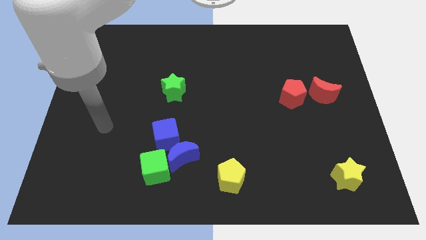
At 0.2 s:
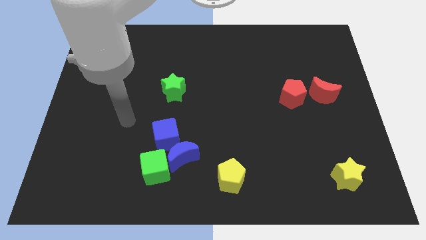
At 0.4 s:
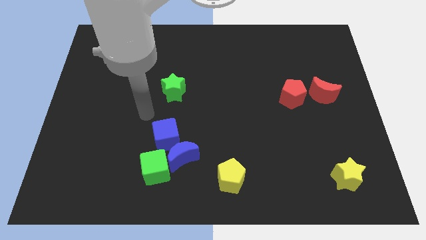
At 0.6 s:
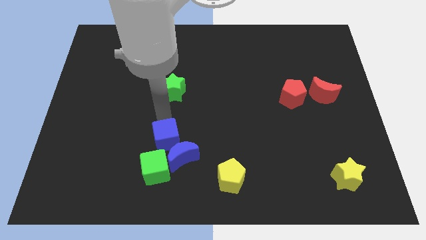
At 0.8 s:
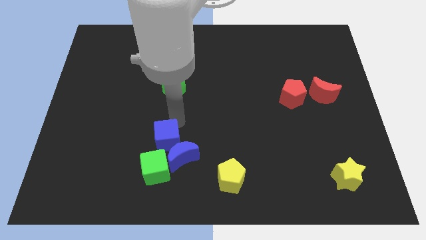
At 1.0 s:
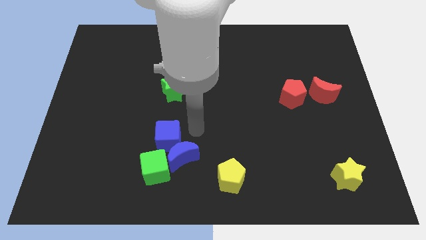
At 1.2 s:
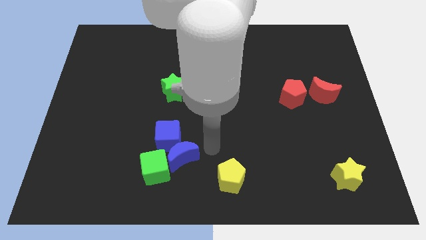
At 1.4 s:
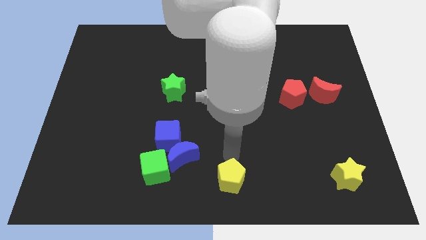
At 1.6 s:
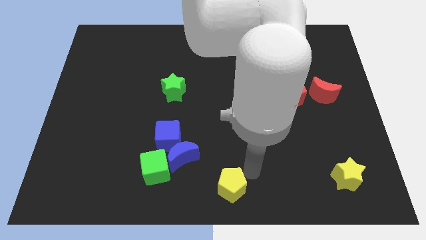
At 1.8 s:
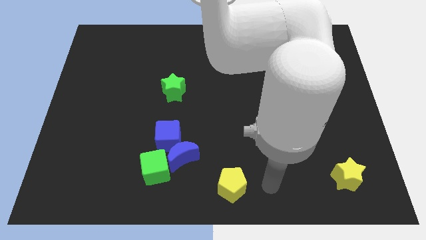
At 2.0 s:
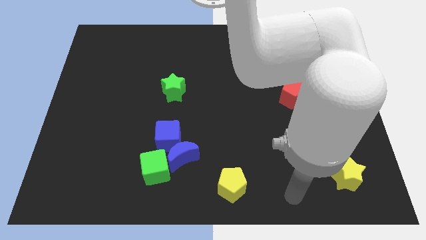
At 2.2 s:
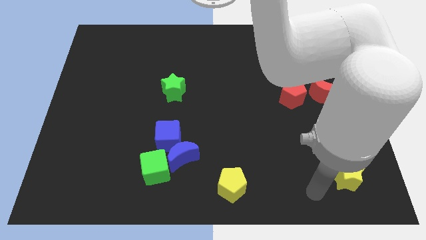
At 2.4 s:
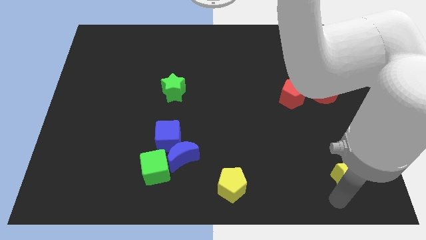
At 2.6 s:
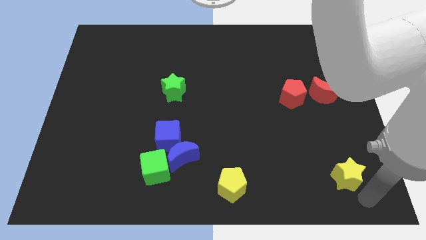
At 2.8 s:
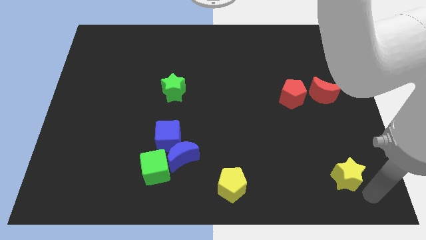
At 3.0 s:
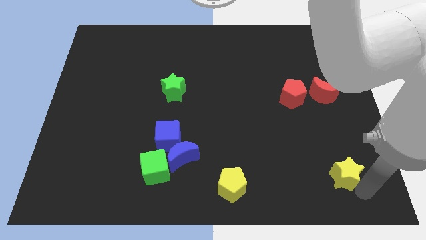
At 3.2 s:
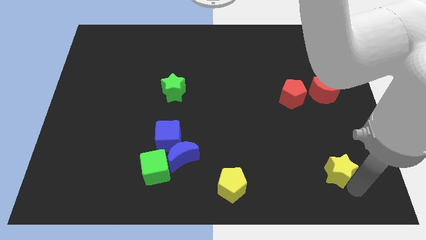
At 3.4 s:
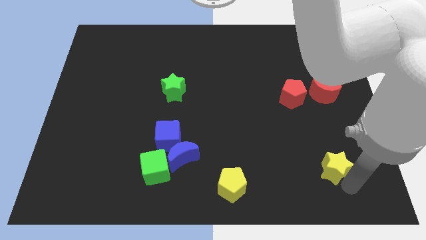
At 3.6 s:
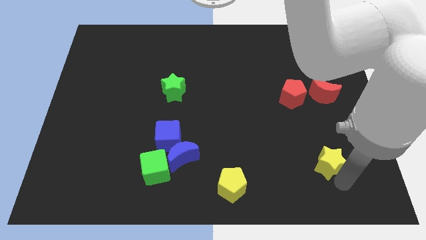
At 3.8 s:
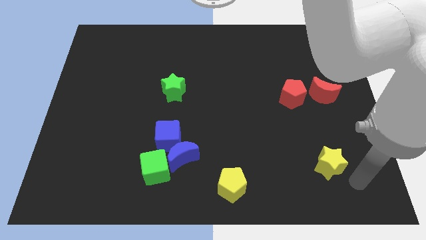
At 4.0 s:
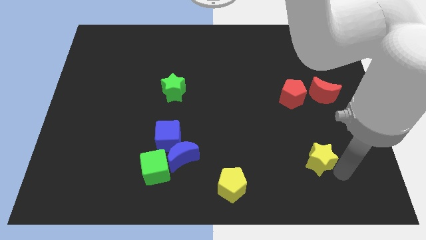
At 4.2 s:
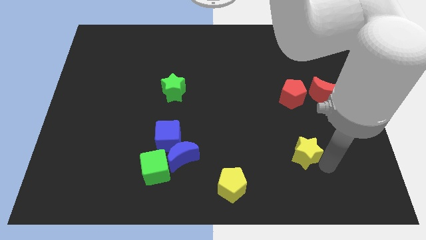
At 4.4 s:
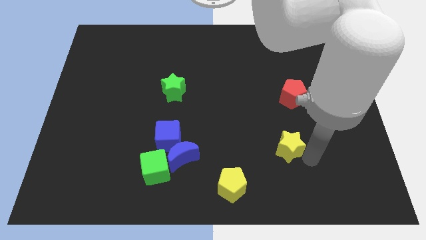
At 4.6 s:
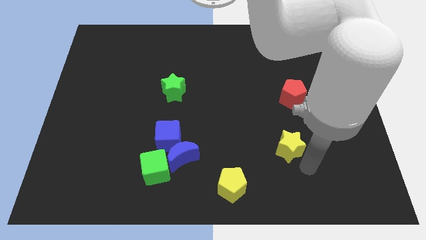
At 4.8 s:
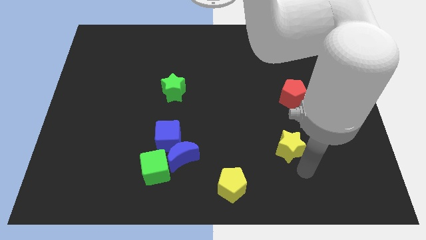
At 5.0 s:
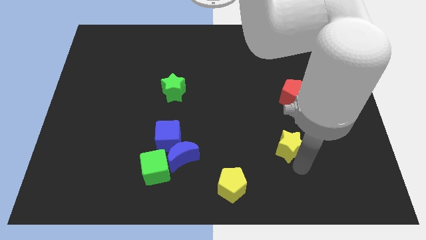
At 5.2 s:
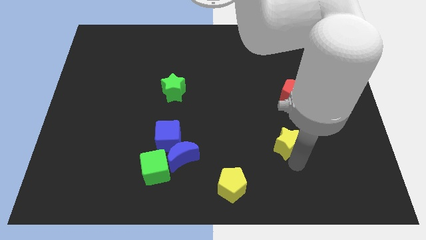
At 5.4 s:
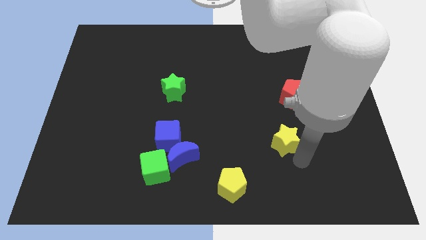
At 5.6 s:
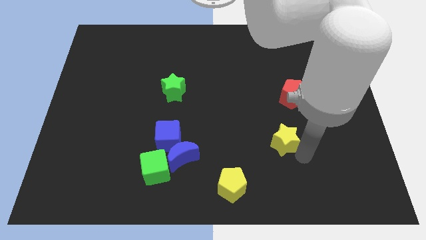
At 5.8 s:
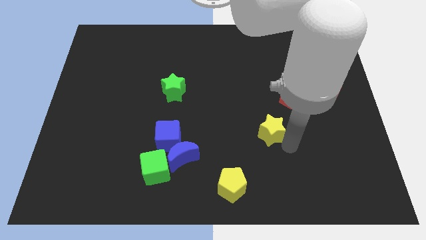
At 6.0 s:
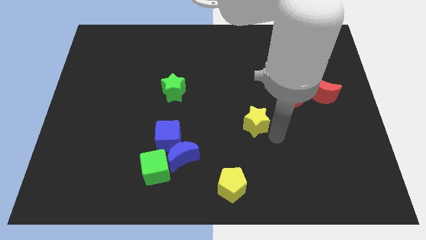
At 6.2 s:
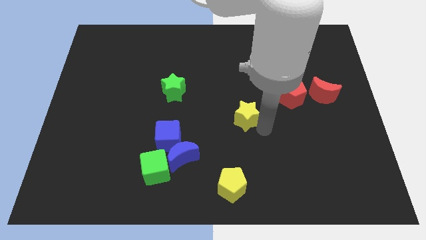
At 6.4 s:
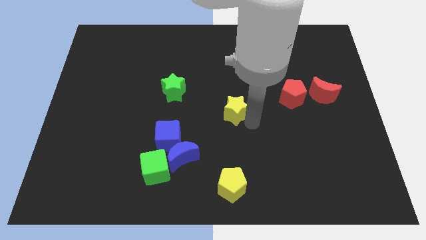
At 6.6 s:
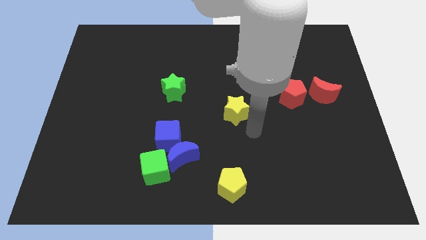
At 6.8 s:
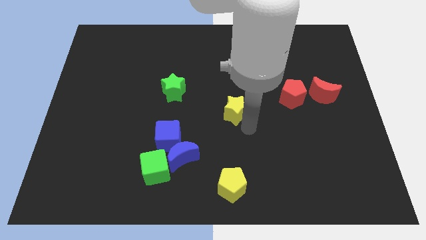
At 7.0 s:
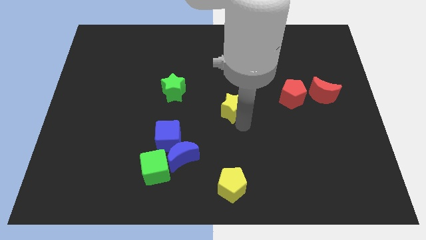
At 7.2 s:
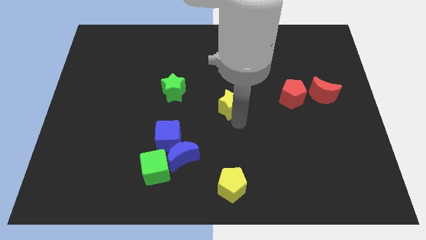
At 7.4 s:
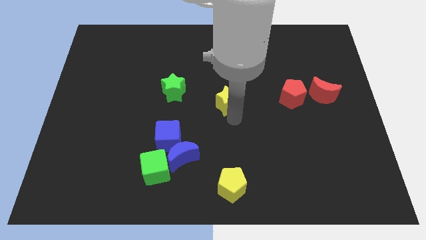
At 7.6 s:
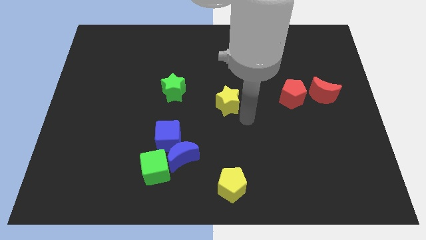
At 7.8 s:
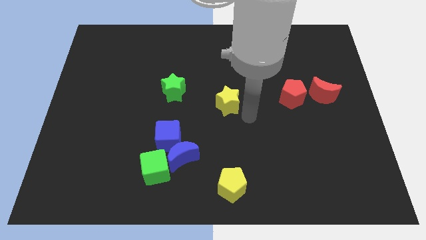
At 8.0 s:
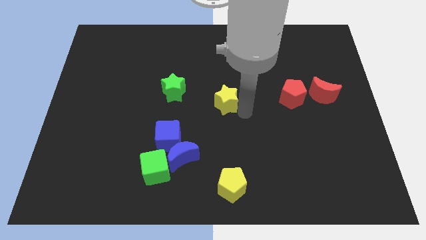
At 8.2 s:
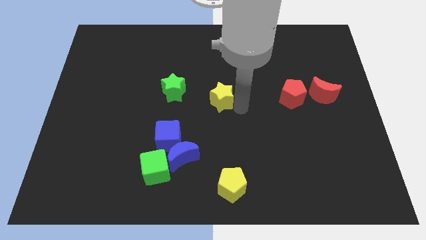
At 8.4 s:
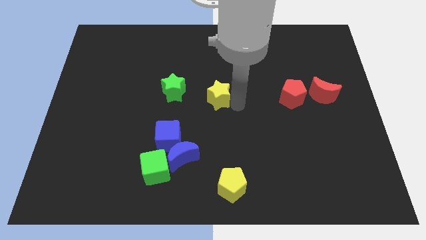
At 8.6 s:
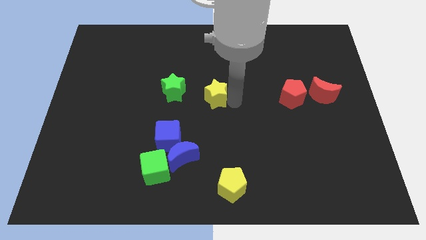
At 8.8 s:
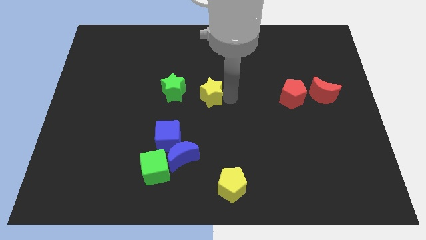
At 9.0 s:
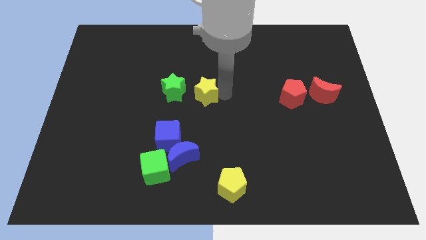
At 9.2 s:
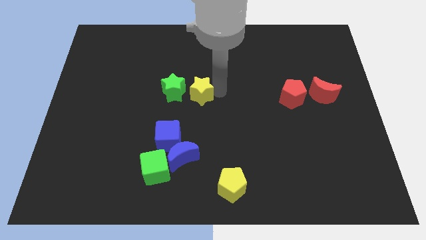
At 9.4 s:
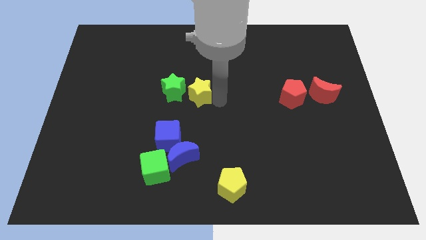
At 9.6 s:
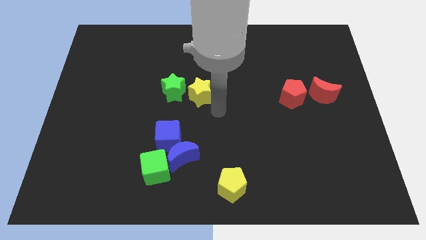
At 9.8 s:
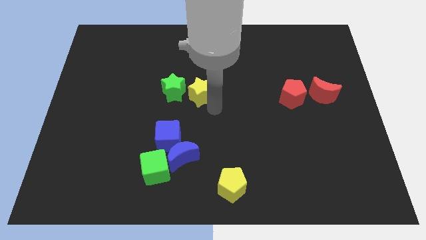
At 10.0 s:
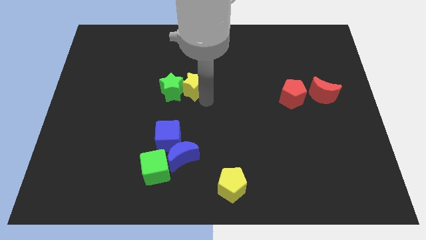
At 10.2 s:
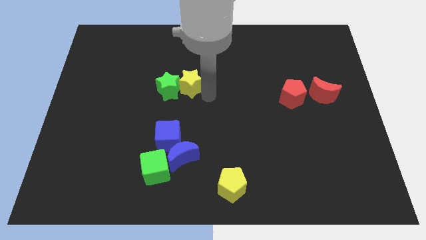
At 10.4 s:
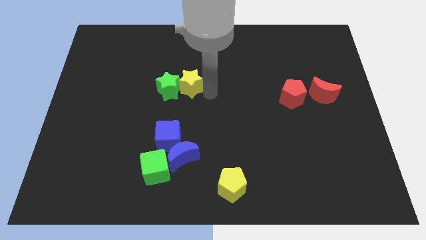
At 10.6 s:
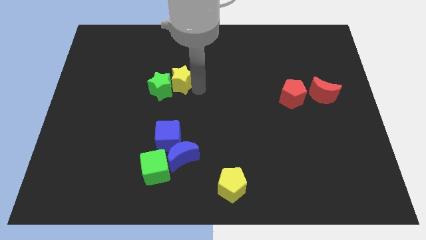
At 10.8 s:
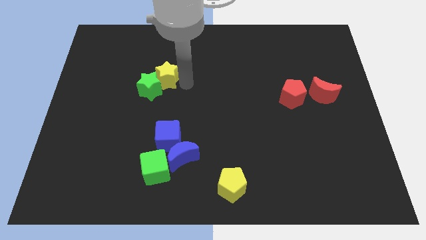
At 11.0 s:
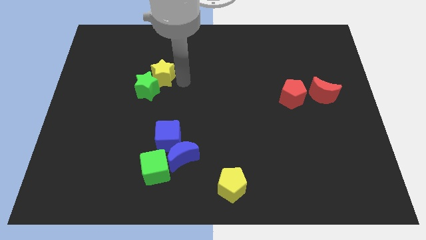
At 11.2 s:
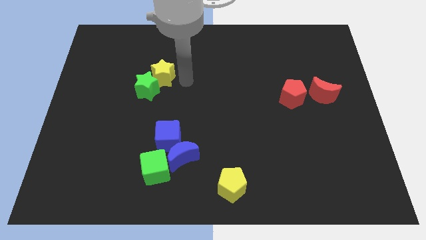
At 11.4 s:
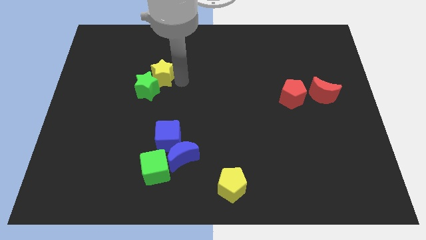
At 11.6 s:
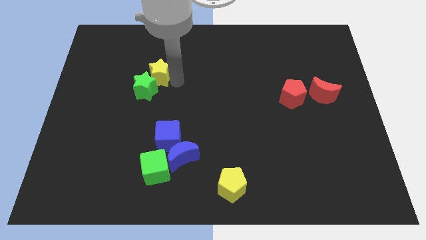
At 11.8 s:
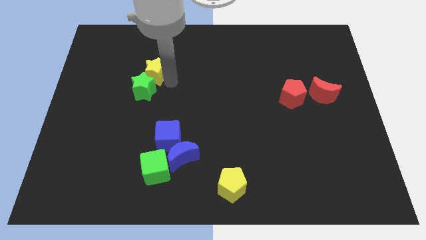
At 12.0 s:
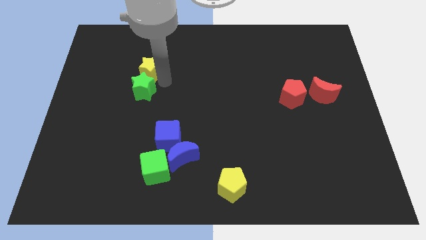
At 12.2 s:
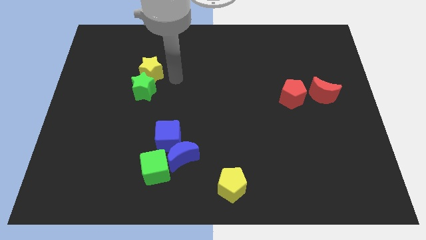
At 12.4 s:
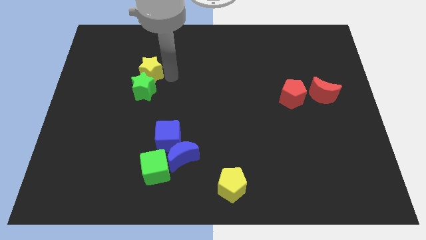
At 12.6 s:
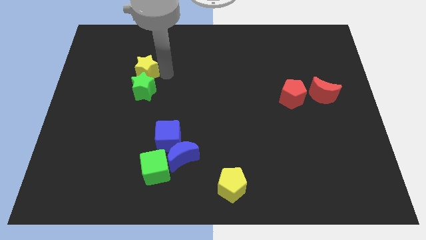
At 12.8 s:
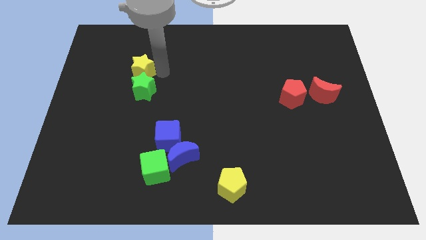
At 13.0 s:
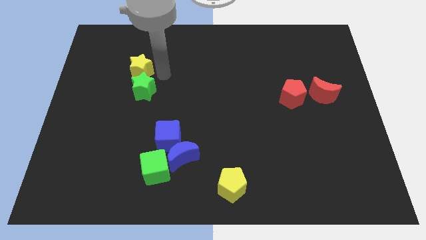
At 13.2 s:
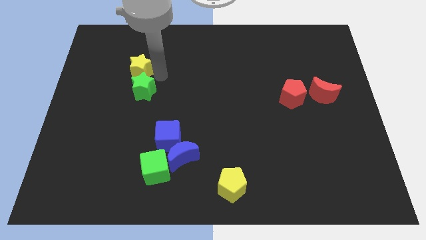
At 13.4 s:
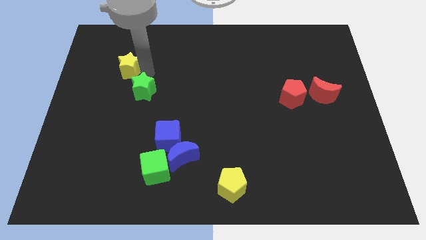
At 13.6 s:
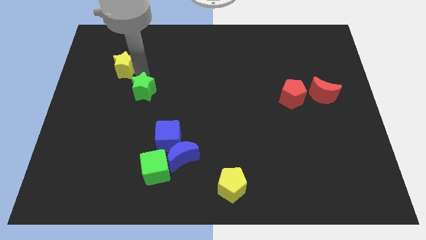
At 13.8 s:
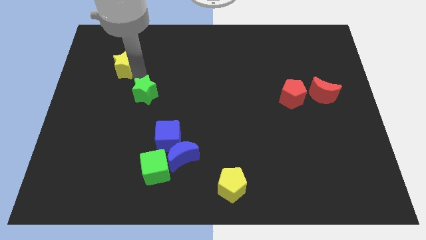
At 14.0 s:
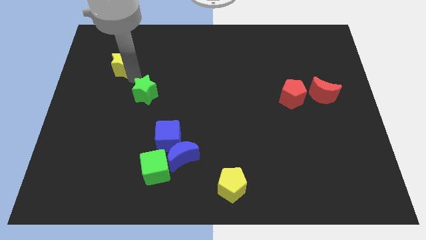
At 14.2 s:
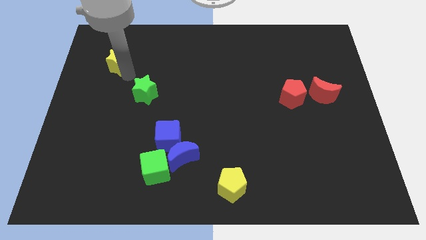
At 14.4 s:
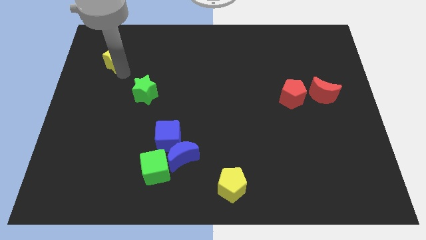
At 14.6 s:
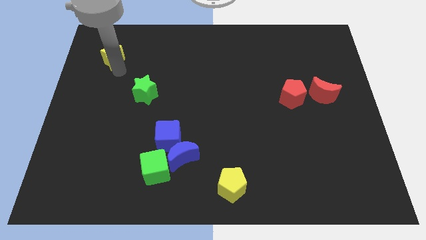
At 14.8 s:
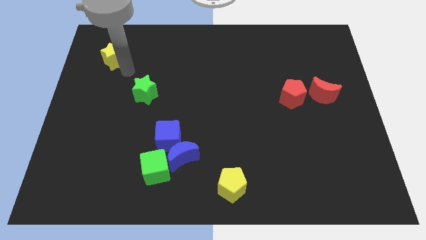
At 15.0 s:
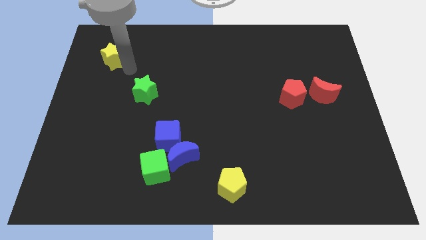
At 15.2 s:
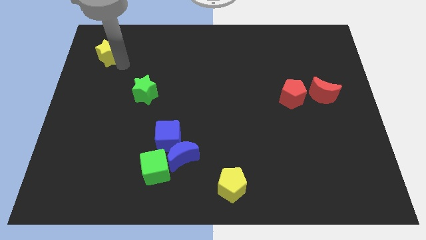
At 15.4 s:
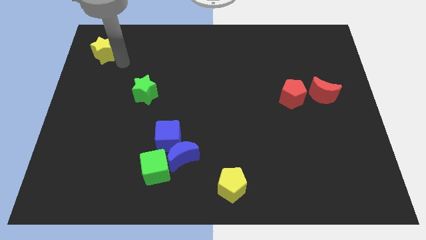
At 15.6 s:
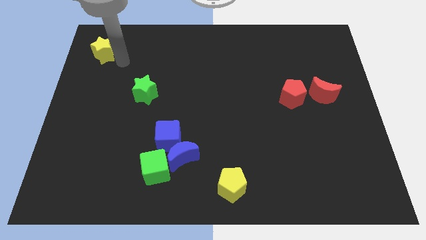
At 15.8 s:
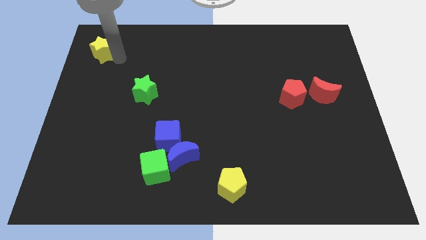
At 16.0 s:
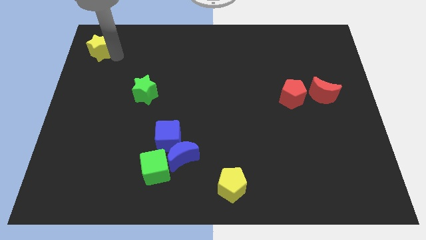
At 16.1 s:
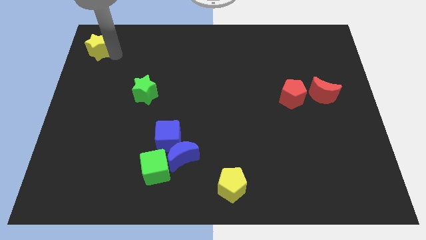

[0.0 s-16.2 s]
move the yellow star to the top left
